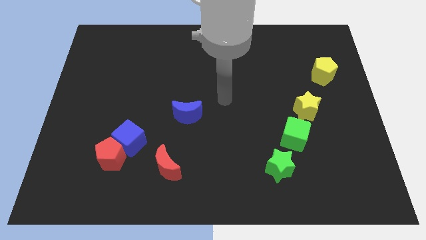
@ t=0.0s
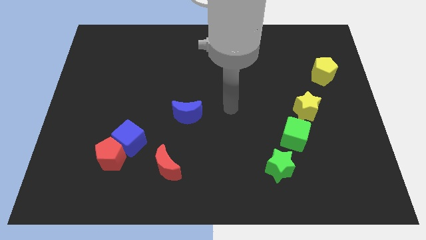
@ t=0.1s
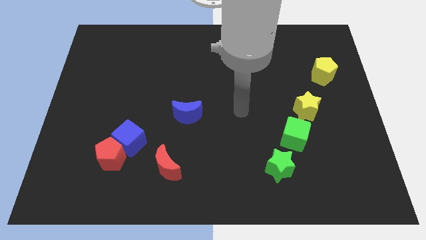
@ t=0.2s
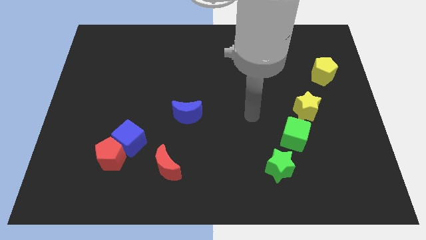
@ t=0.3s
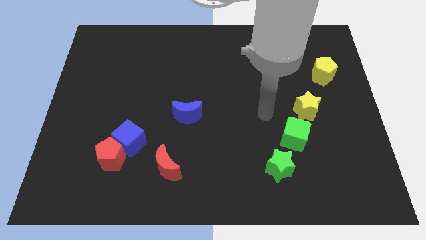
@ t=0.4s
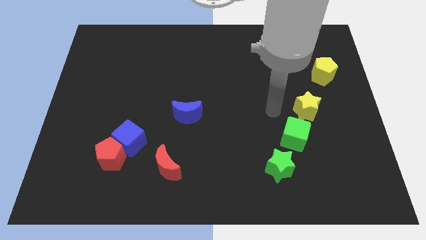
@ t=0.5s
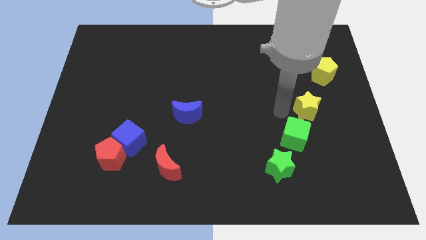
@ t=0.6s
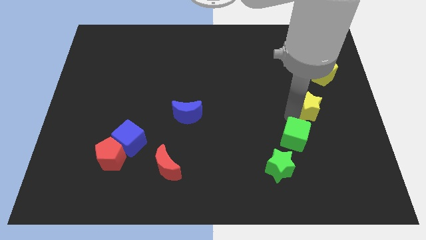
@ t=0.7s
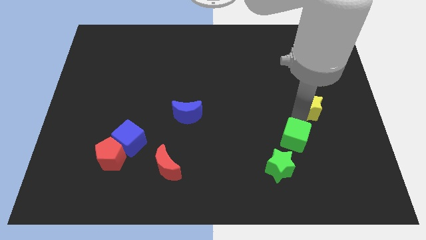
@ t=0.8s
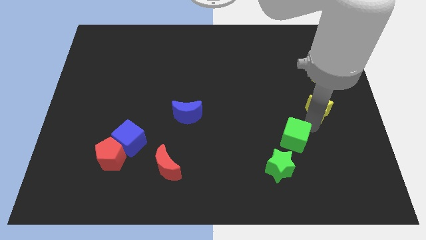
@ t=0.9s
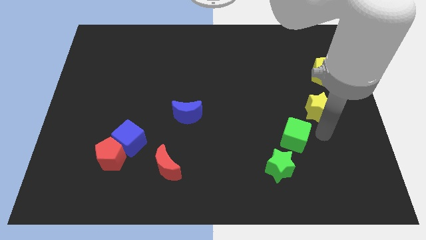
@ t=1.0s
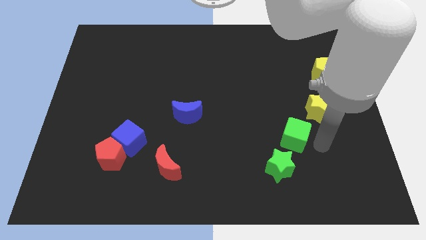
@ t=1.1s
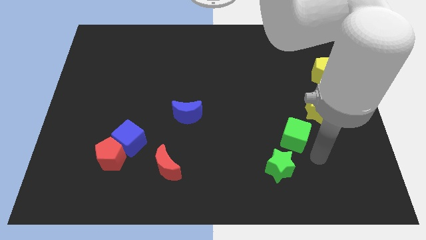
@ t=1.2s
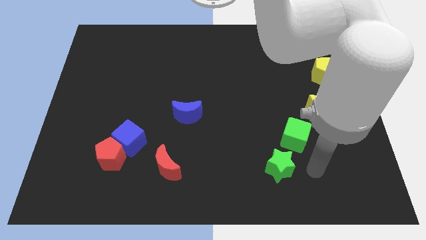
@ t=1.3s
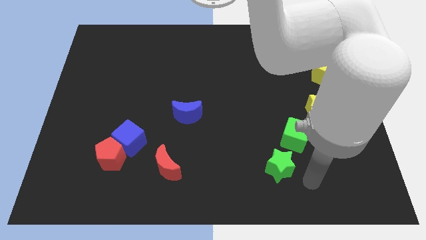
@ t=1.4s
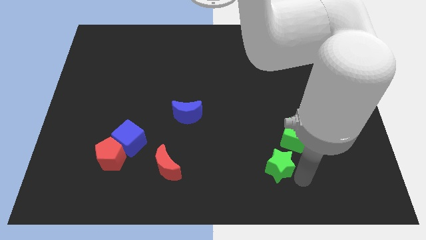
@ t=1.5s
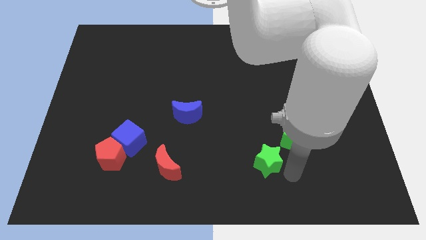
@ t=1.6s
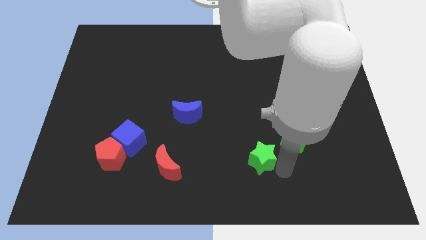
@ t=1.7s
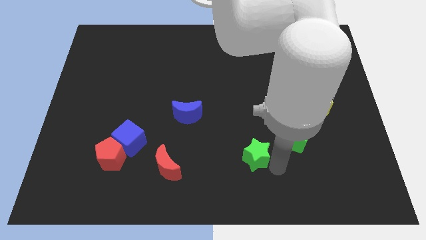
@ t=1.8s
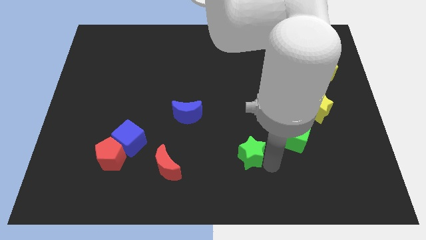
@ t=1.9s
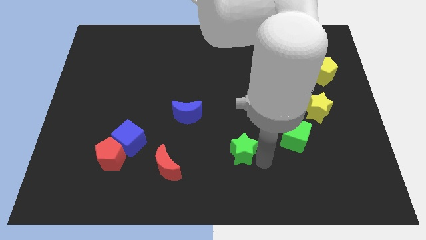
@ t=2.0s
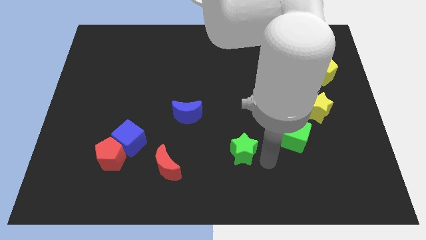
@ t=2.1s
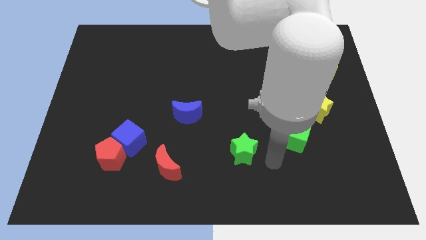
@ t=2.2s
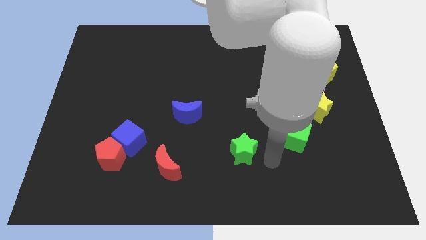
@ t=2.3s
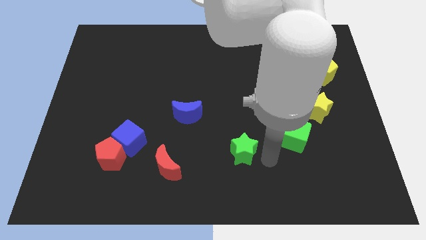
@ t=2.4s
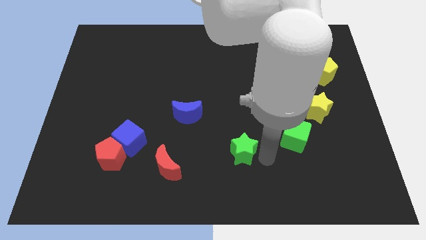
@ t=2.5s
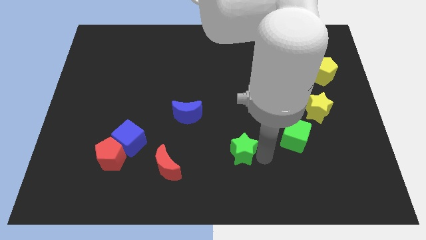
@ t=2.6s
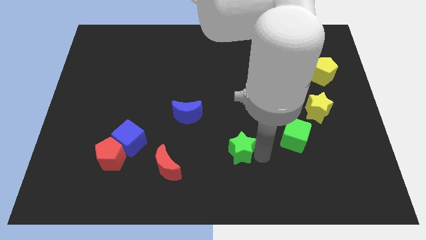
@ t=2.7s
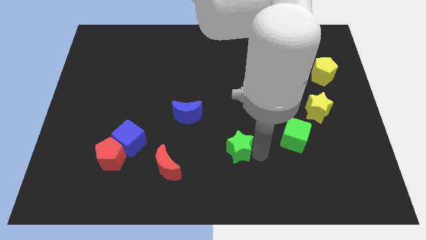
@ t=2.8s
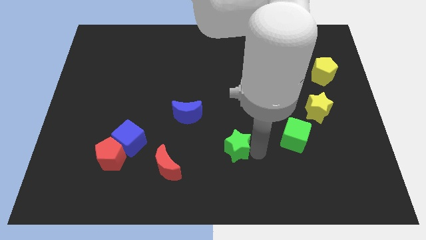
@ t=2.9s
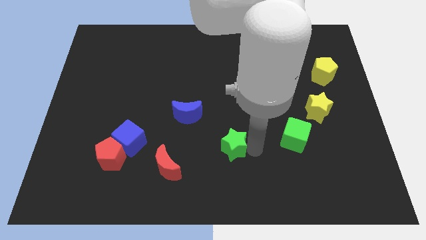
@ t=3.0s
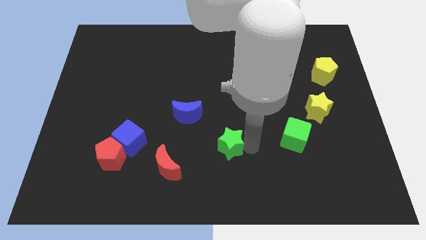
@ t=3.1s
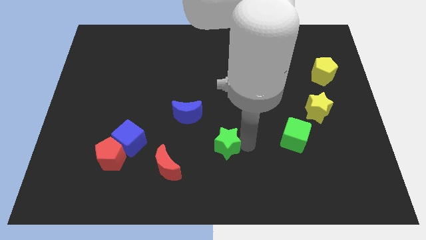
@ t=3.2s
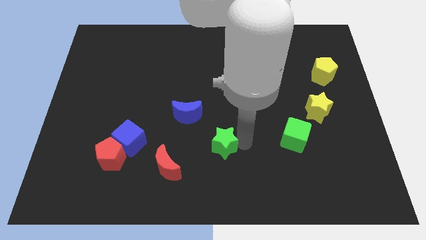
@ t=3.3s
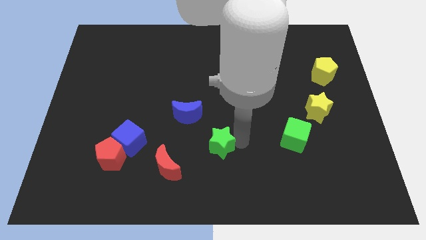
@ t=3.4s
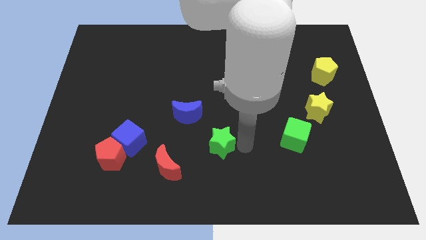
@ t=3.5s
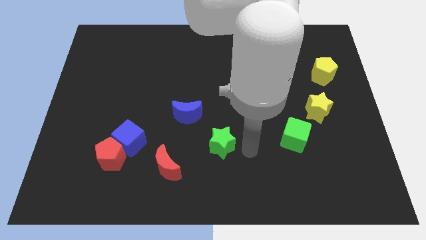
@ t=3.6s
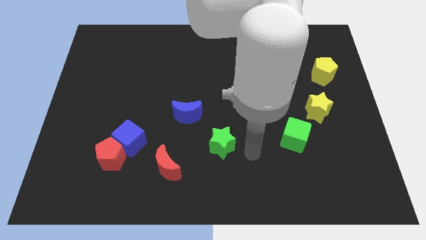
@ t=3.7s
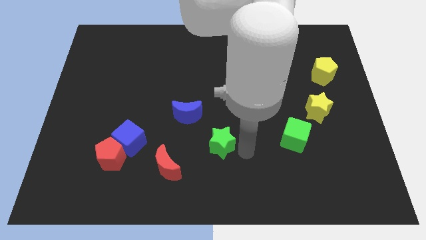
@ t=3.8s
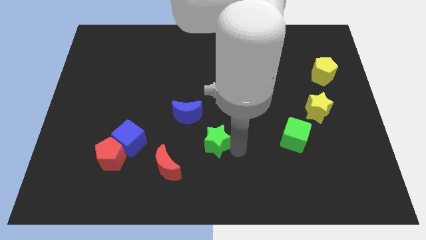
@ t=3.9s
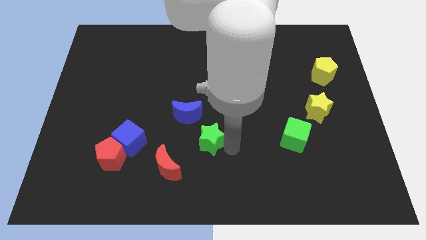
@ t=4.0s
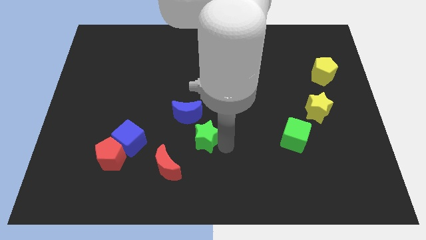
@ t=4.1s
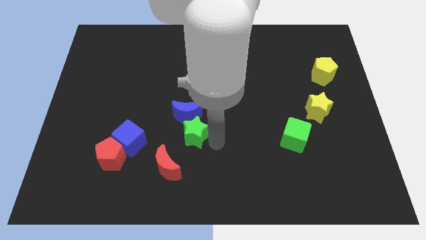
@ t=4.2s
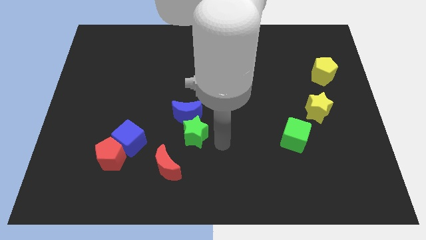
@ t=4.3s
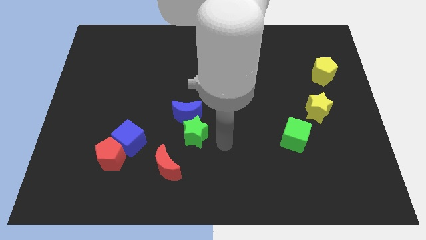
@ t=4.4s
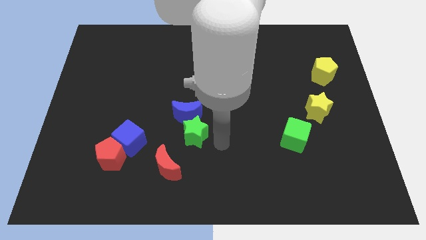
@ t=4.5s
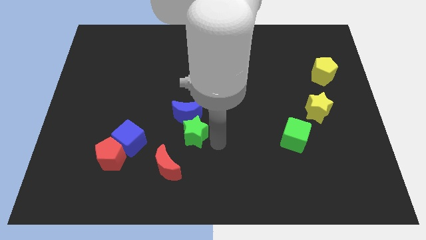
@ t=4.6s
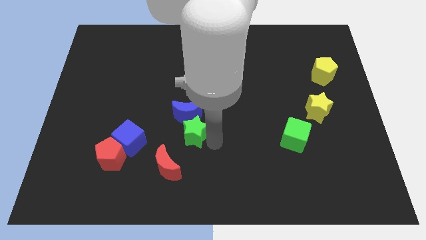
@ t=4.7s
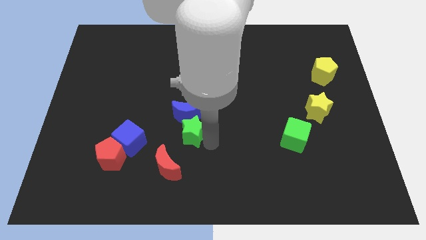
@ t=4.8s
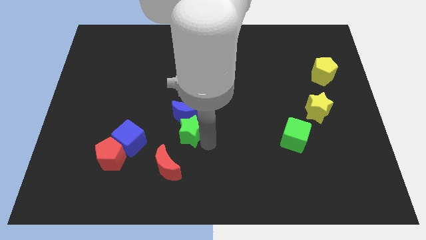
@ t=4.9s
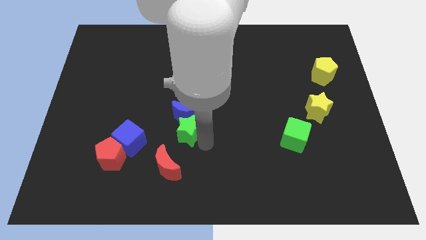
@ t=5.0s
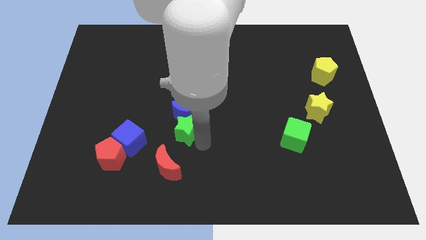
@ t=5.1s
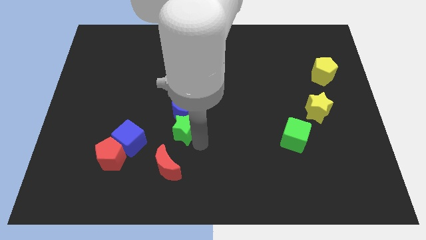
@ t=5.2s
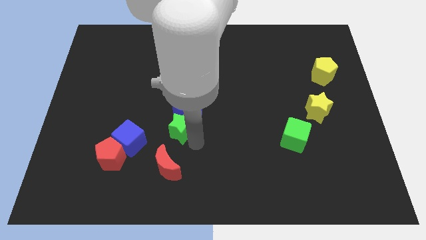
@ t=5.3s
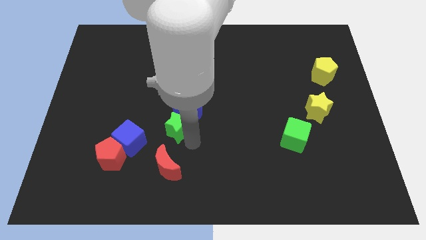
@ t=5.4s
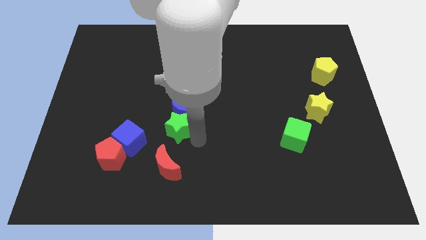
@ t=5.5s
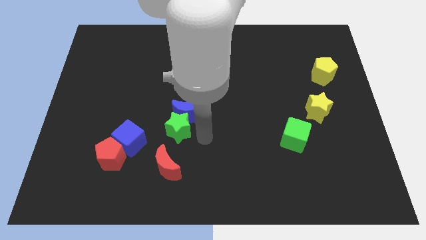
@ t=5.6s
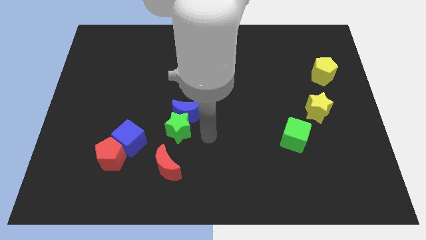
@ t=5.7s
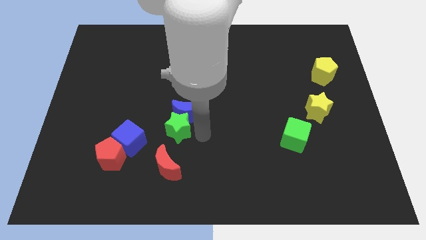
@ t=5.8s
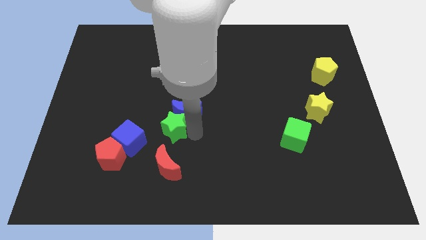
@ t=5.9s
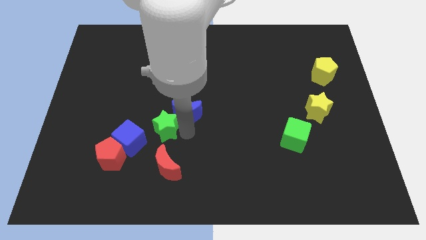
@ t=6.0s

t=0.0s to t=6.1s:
put the green star to the left of the blue moon
